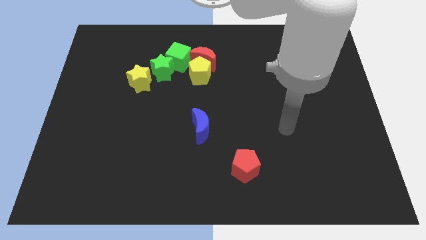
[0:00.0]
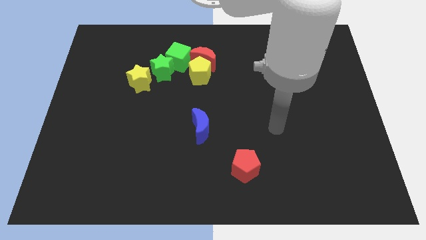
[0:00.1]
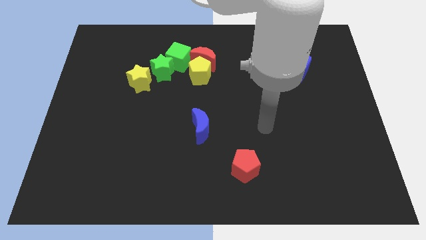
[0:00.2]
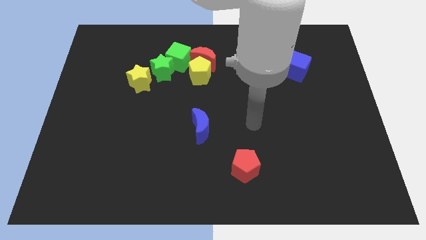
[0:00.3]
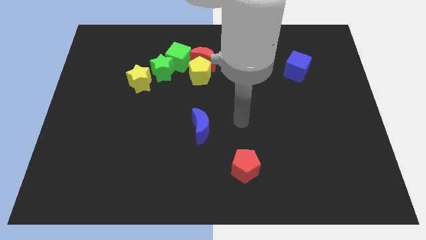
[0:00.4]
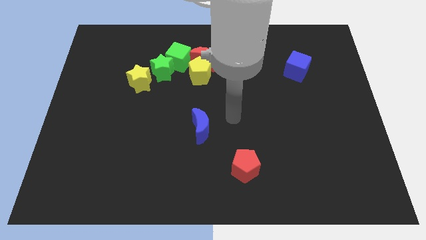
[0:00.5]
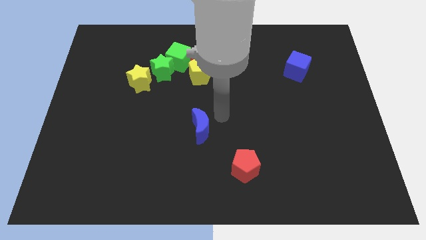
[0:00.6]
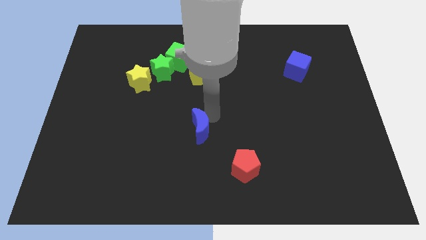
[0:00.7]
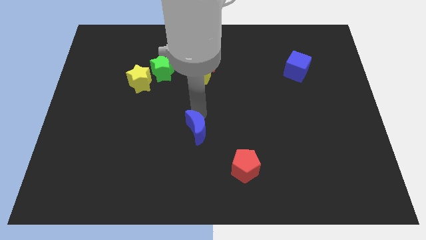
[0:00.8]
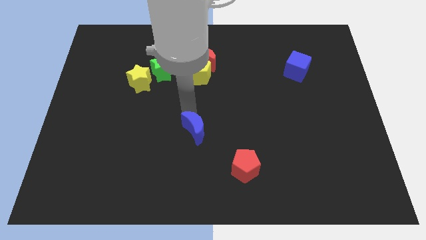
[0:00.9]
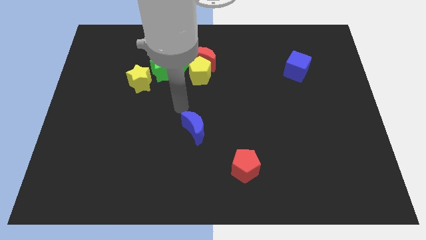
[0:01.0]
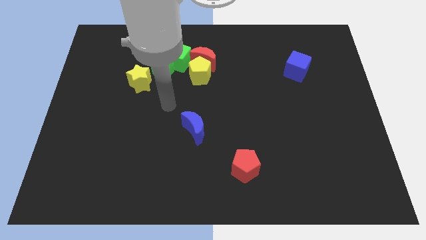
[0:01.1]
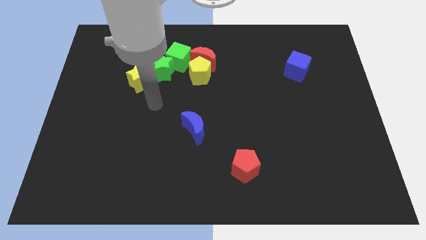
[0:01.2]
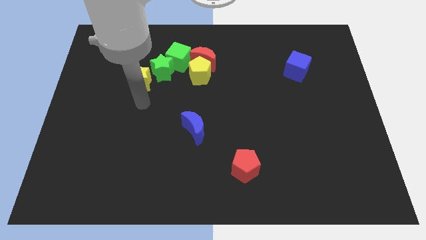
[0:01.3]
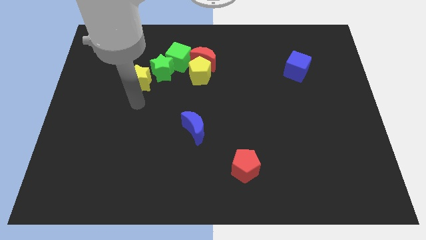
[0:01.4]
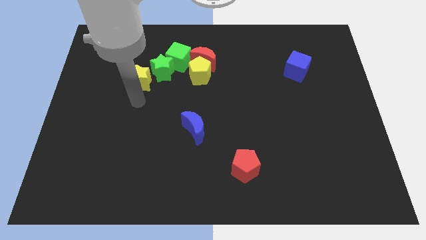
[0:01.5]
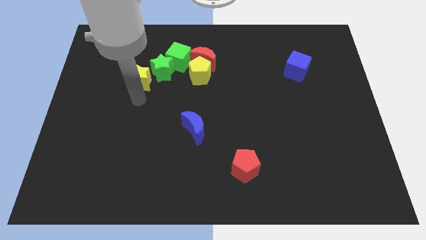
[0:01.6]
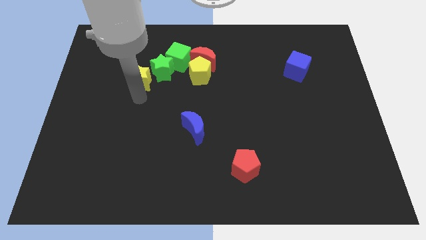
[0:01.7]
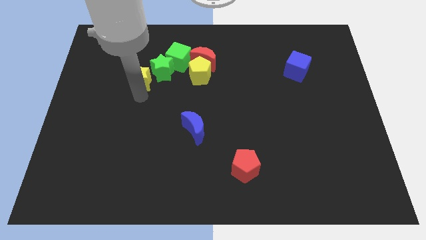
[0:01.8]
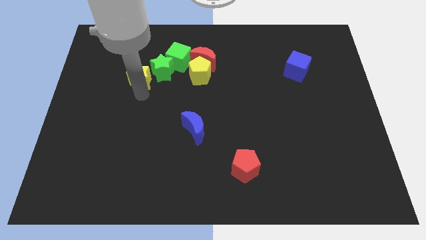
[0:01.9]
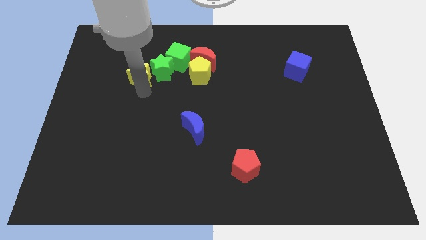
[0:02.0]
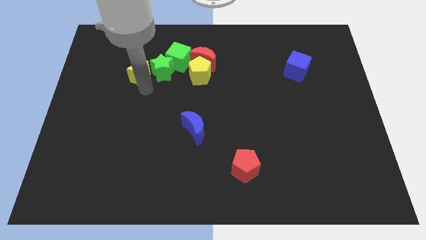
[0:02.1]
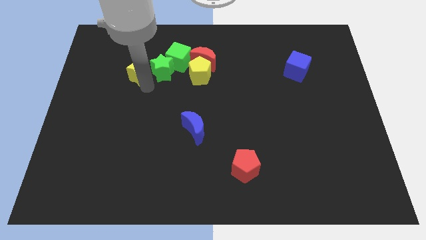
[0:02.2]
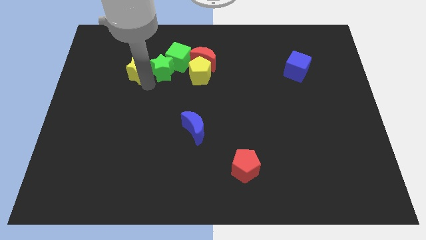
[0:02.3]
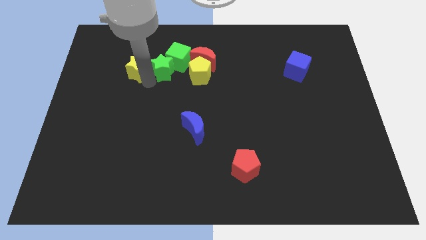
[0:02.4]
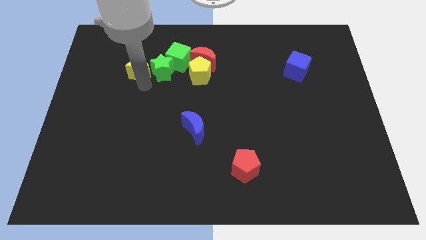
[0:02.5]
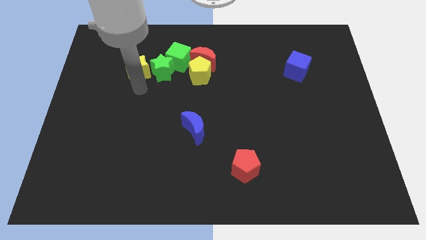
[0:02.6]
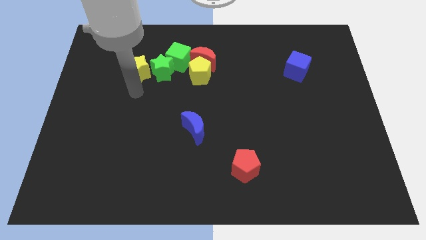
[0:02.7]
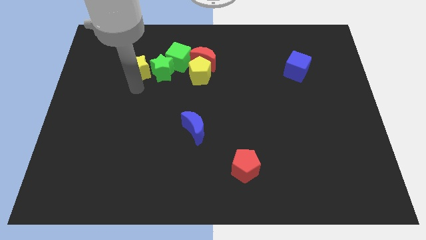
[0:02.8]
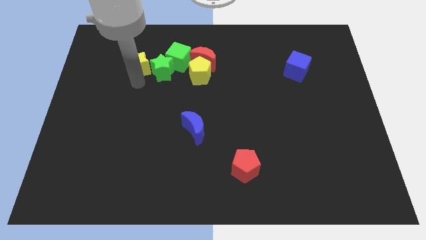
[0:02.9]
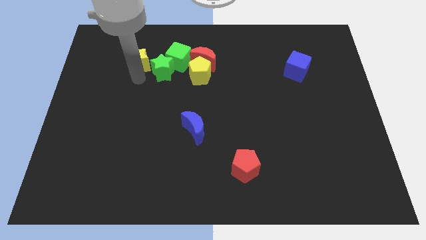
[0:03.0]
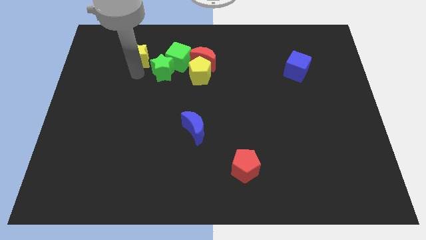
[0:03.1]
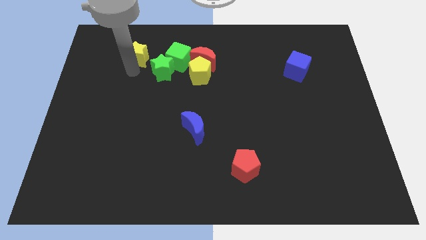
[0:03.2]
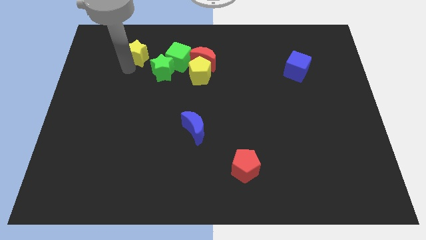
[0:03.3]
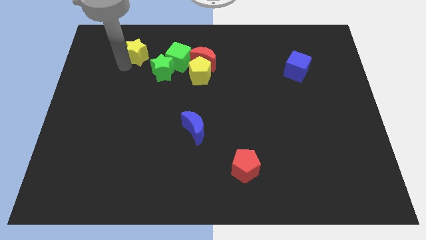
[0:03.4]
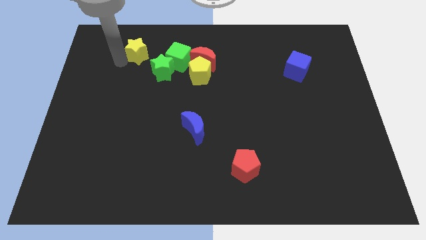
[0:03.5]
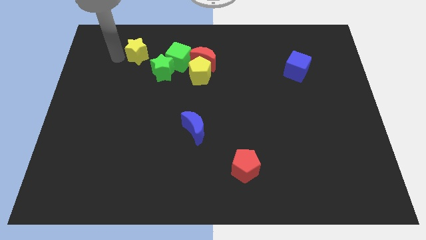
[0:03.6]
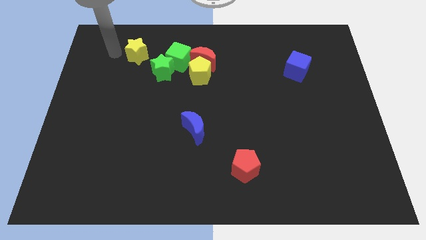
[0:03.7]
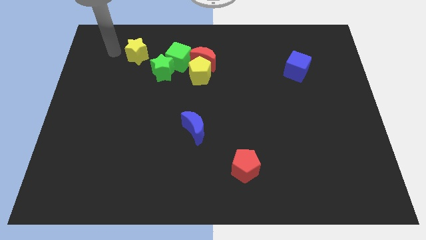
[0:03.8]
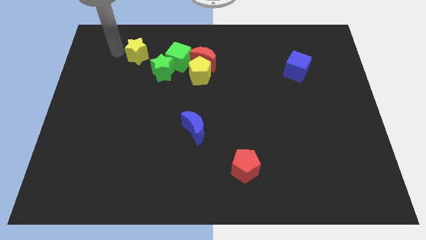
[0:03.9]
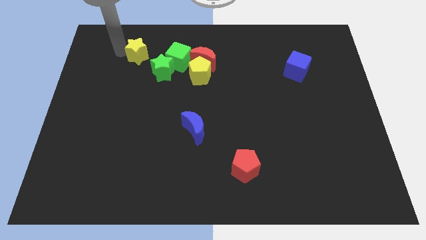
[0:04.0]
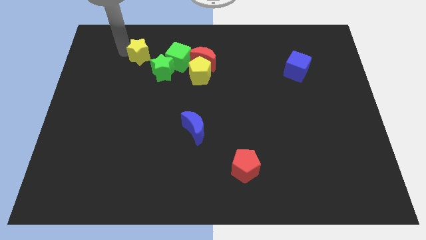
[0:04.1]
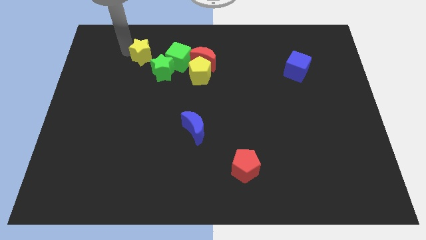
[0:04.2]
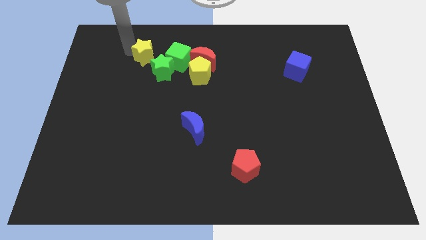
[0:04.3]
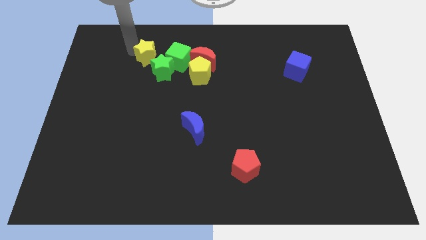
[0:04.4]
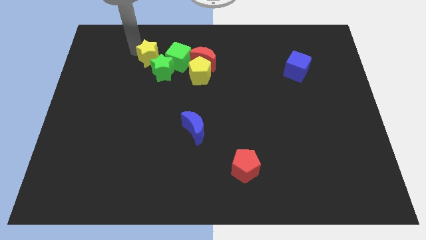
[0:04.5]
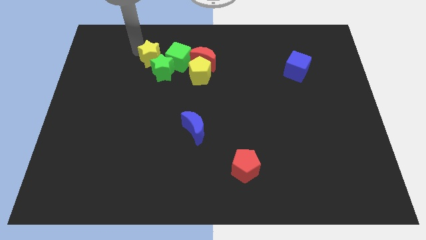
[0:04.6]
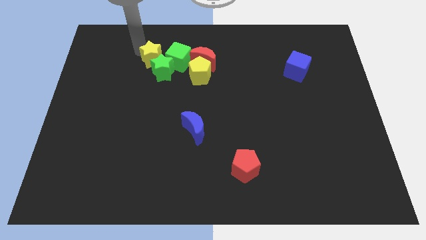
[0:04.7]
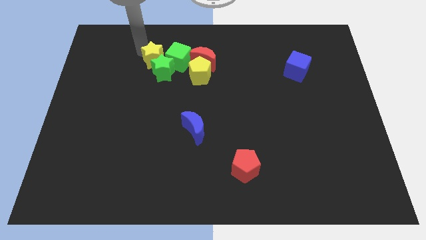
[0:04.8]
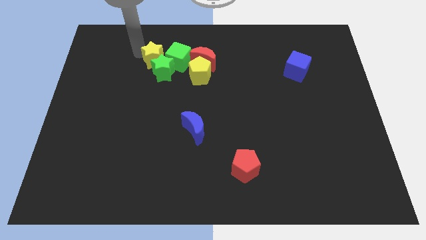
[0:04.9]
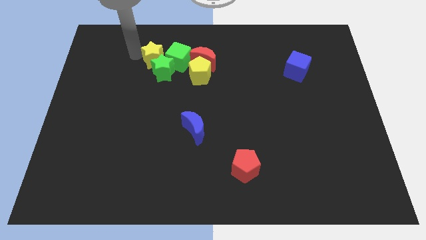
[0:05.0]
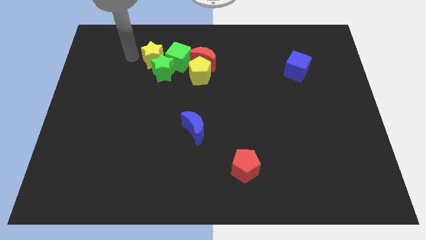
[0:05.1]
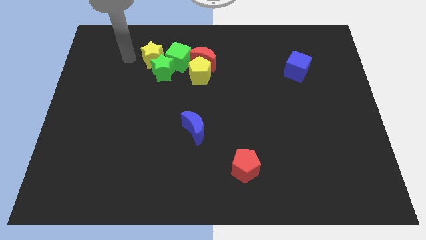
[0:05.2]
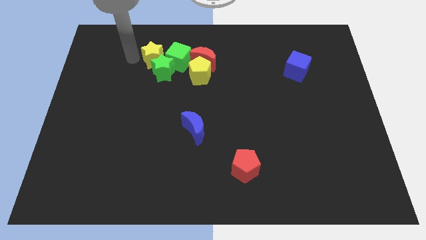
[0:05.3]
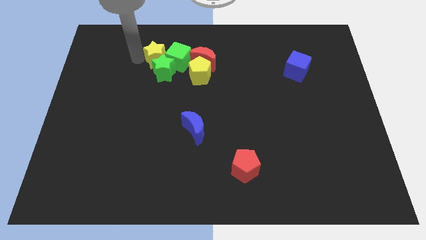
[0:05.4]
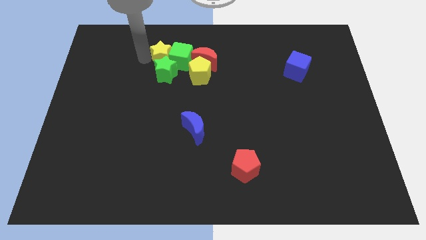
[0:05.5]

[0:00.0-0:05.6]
push the yellow star close to the green cube

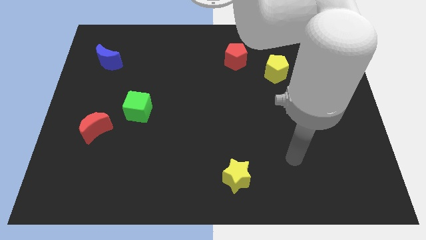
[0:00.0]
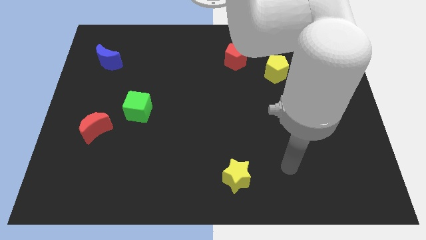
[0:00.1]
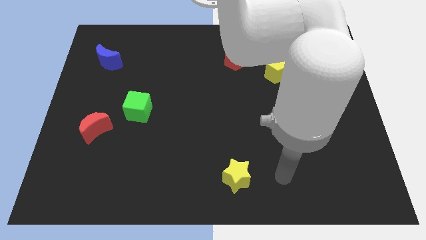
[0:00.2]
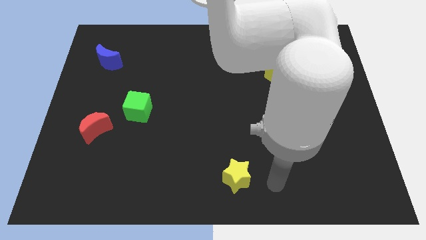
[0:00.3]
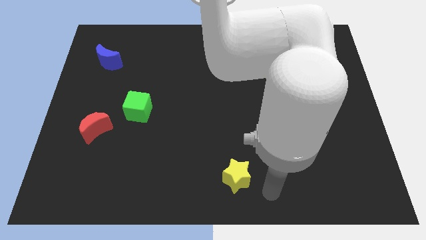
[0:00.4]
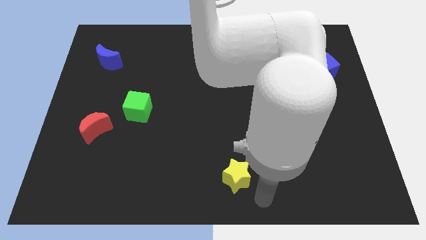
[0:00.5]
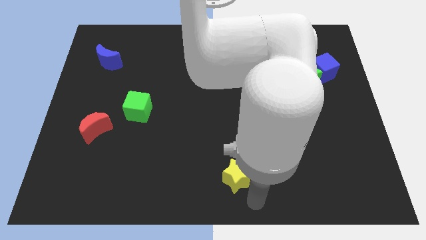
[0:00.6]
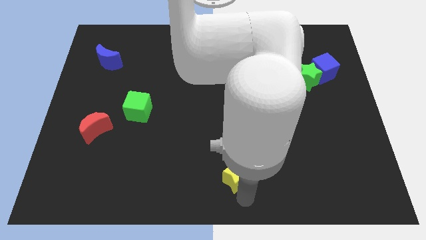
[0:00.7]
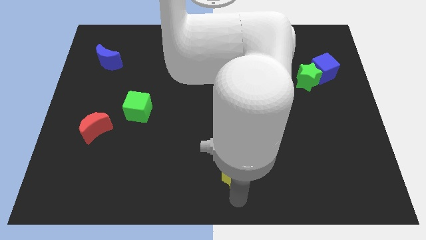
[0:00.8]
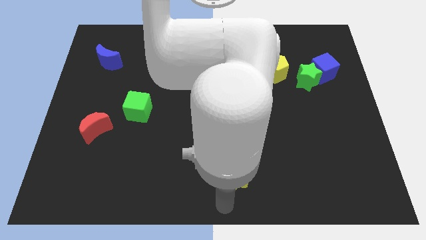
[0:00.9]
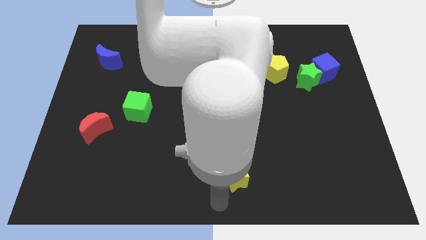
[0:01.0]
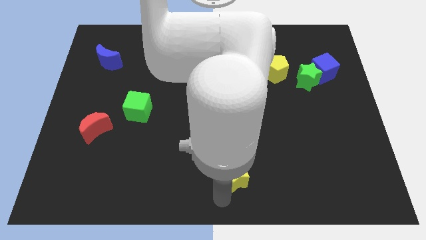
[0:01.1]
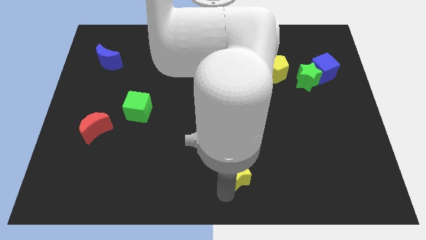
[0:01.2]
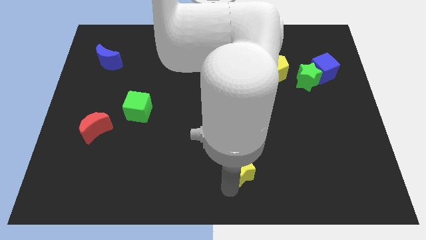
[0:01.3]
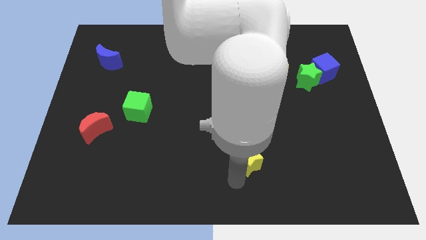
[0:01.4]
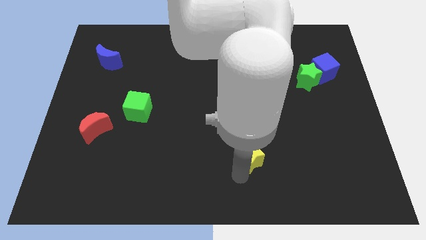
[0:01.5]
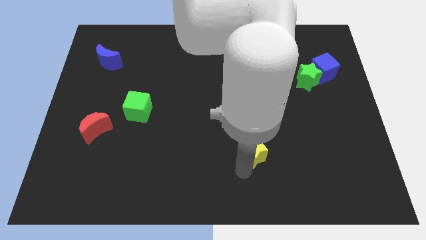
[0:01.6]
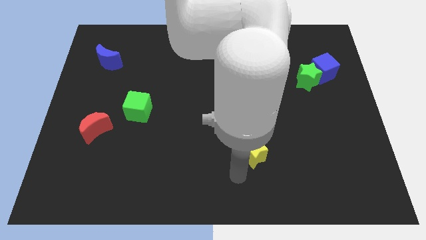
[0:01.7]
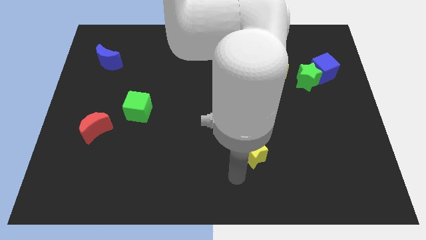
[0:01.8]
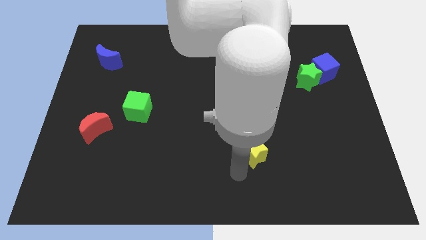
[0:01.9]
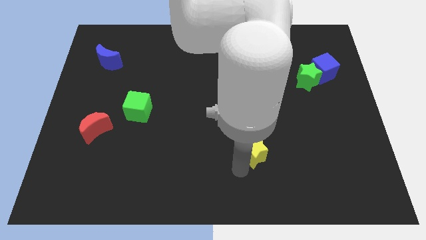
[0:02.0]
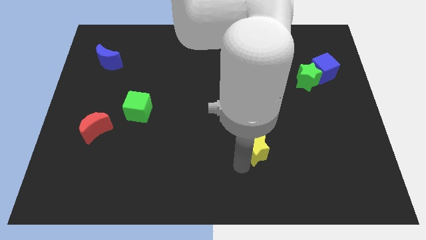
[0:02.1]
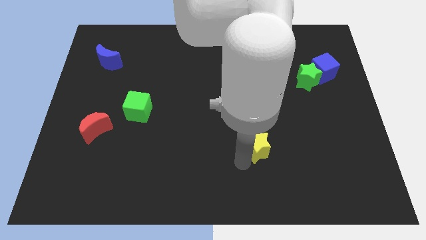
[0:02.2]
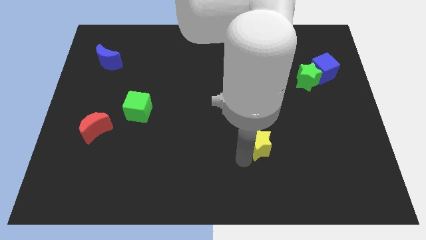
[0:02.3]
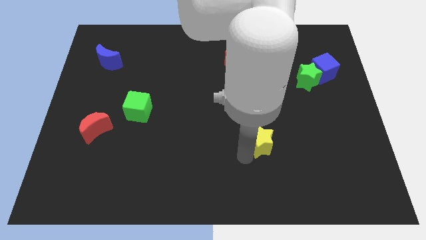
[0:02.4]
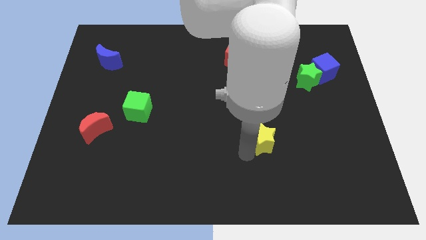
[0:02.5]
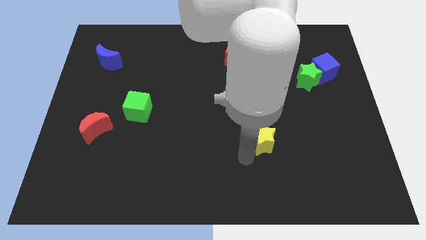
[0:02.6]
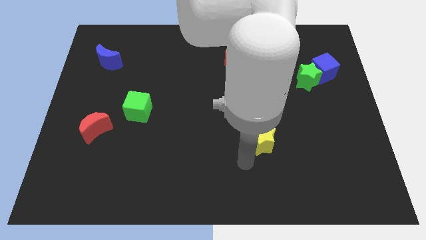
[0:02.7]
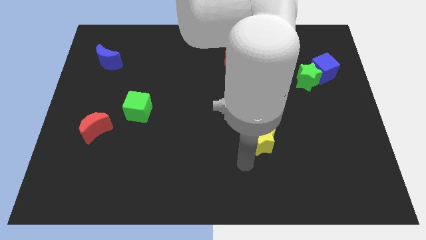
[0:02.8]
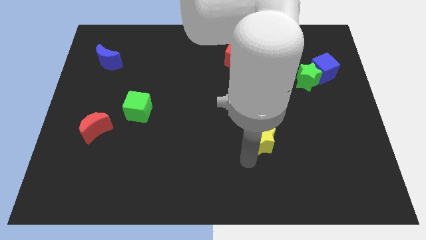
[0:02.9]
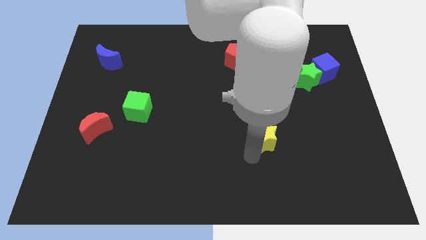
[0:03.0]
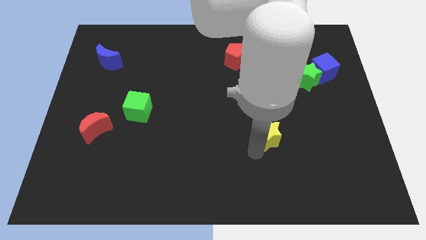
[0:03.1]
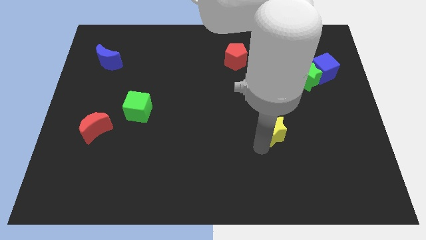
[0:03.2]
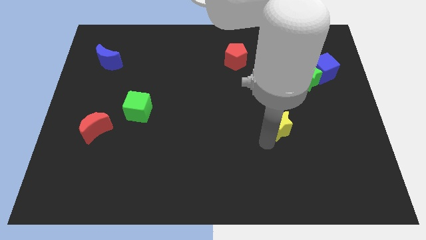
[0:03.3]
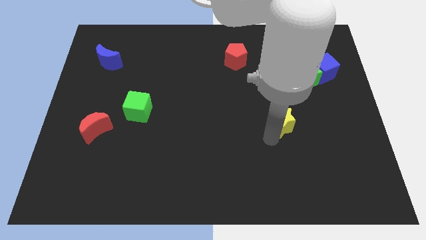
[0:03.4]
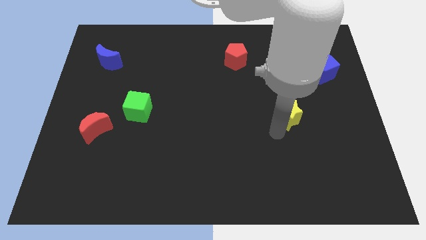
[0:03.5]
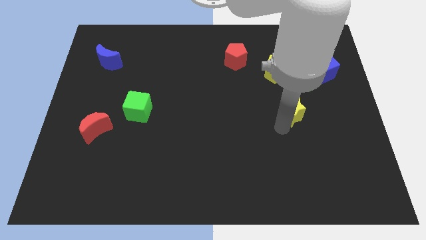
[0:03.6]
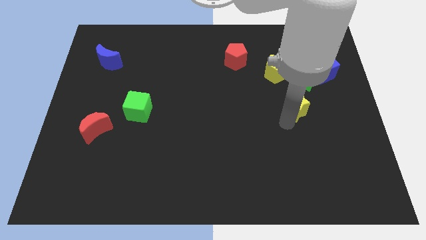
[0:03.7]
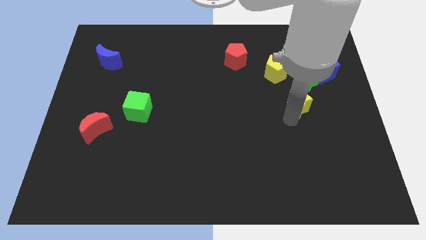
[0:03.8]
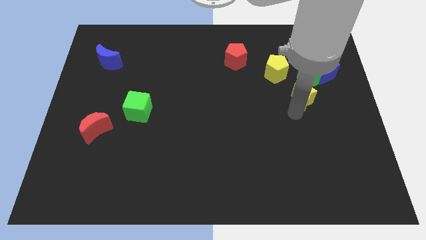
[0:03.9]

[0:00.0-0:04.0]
slide the yellow star to the green star
